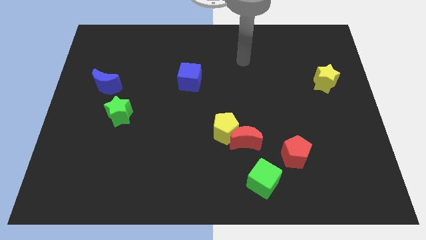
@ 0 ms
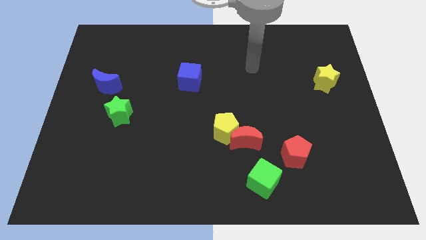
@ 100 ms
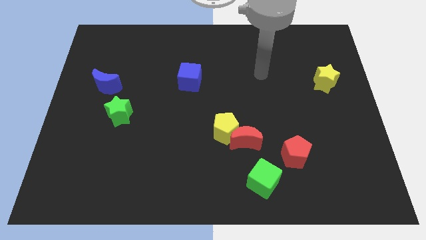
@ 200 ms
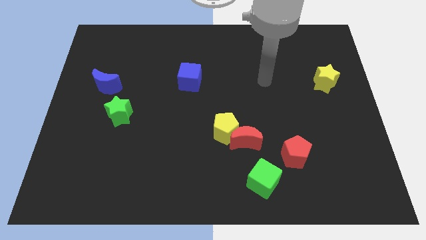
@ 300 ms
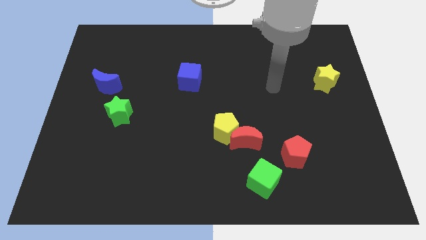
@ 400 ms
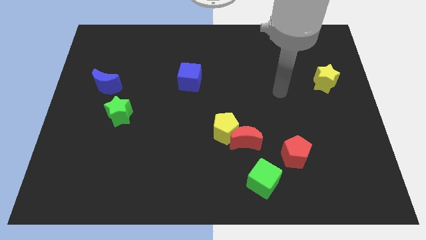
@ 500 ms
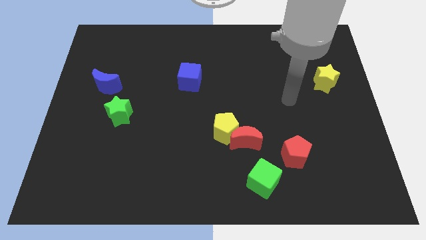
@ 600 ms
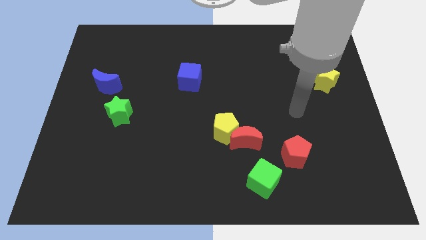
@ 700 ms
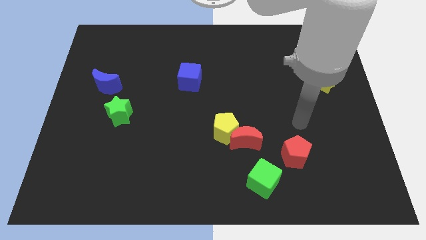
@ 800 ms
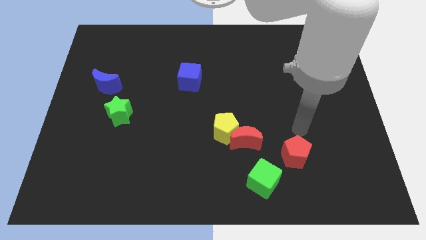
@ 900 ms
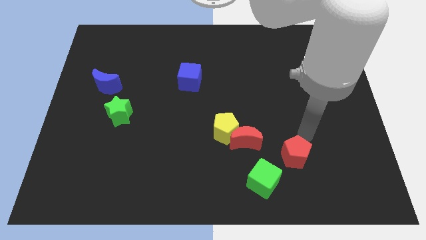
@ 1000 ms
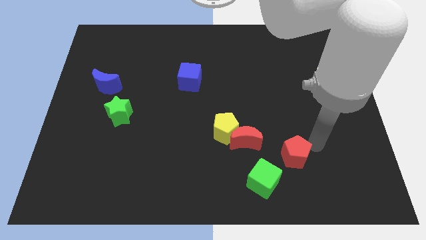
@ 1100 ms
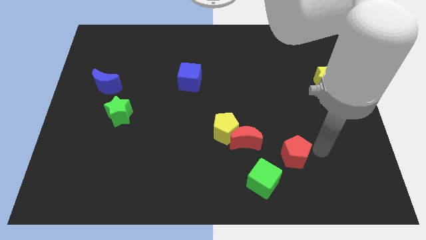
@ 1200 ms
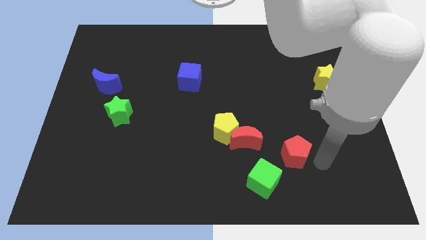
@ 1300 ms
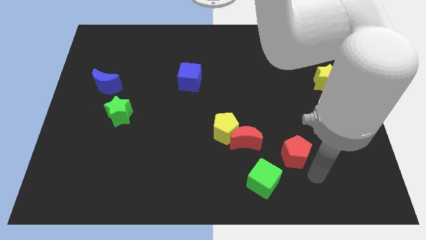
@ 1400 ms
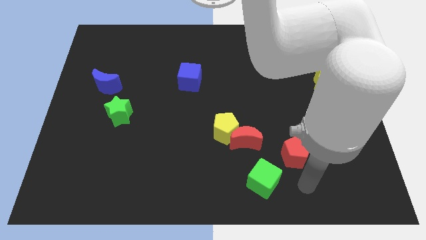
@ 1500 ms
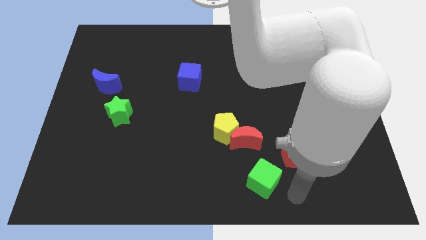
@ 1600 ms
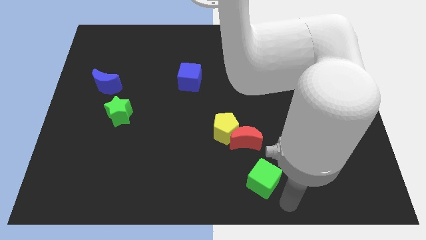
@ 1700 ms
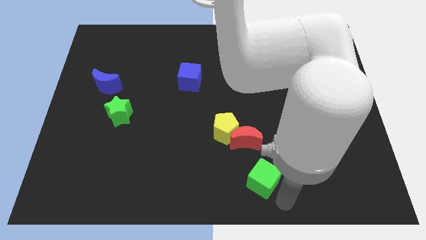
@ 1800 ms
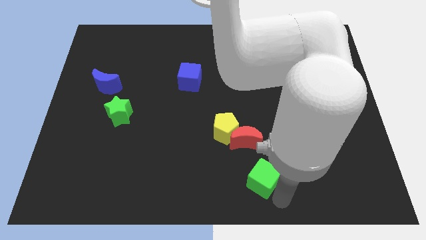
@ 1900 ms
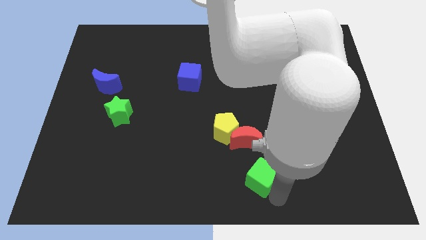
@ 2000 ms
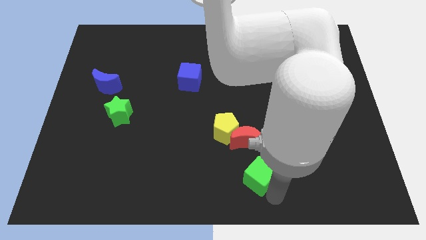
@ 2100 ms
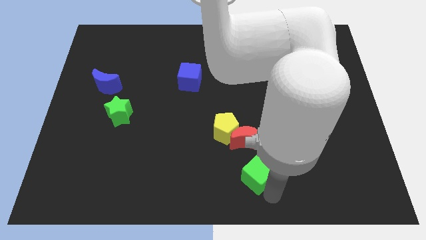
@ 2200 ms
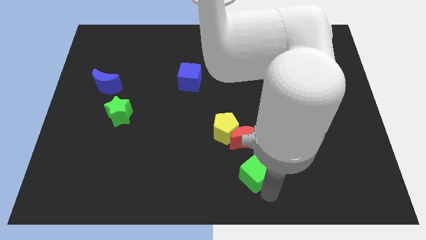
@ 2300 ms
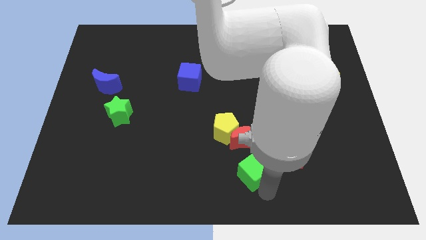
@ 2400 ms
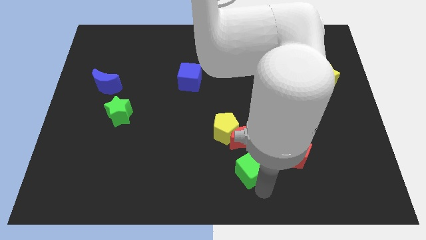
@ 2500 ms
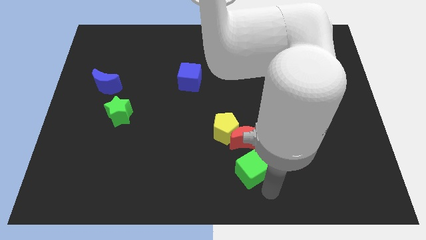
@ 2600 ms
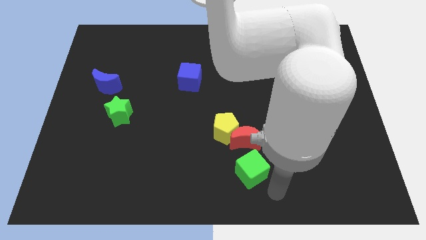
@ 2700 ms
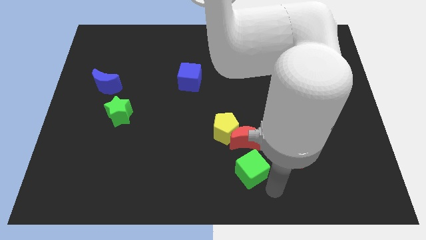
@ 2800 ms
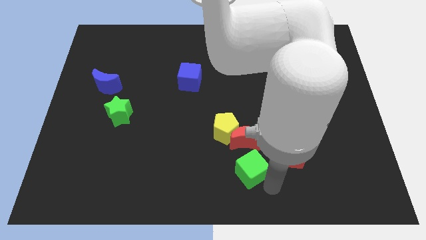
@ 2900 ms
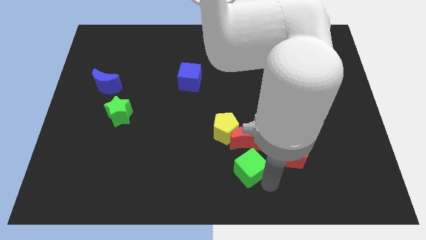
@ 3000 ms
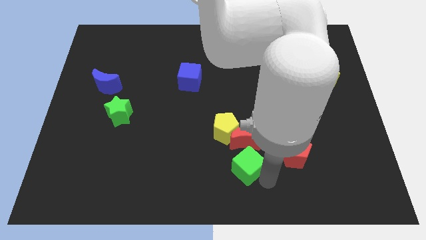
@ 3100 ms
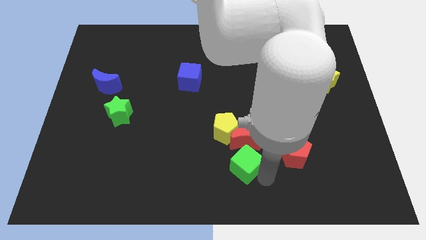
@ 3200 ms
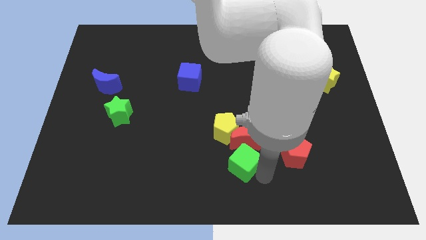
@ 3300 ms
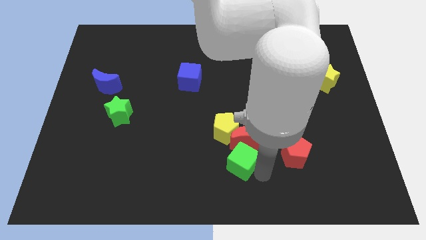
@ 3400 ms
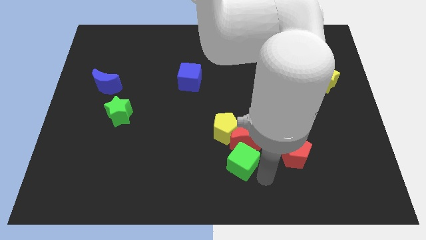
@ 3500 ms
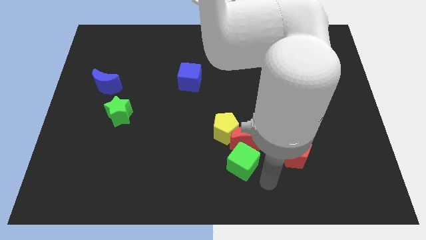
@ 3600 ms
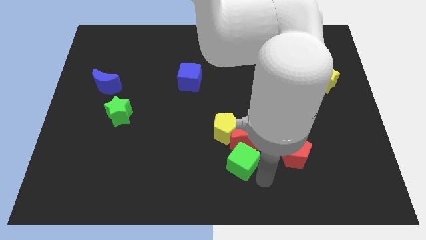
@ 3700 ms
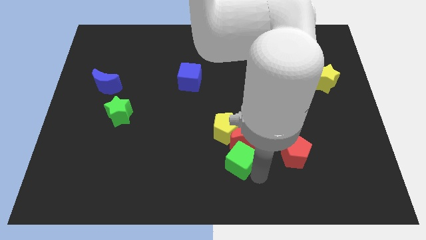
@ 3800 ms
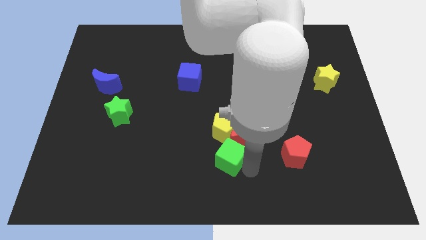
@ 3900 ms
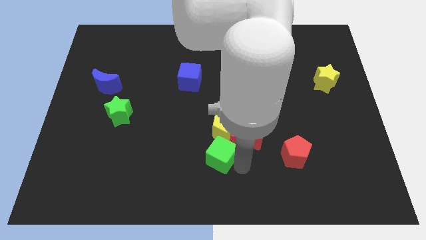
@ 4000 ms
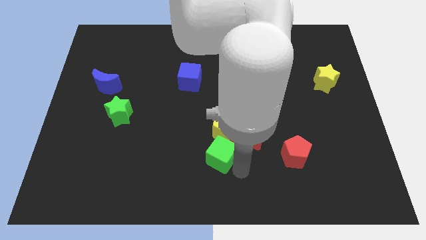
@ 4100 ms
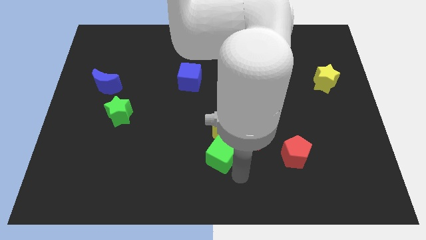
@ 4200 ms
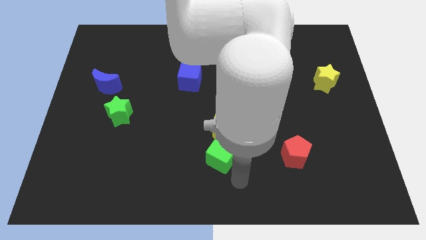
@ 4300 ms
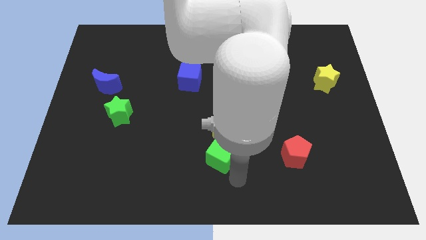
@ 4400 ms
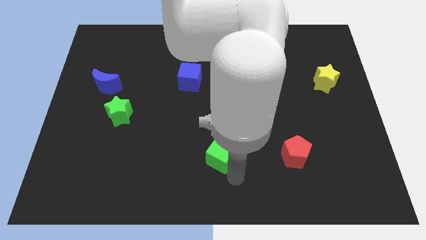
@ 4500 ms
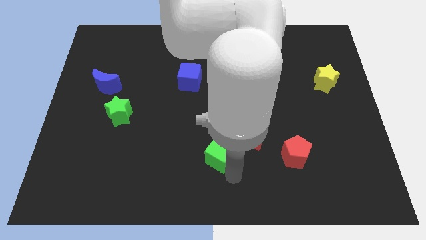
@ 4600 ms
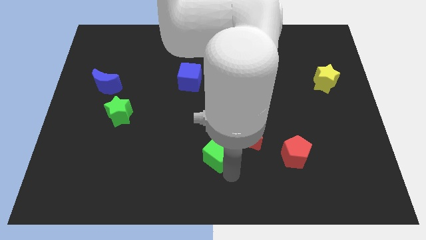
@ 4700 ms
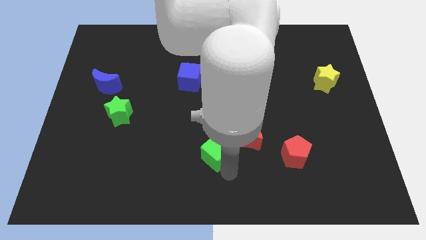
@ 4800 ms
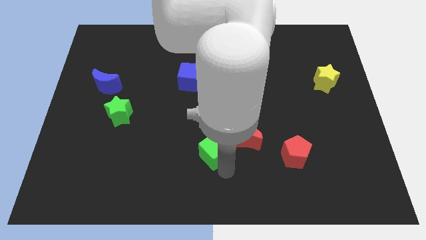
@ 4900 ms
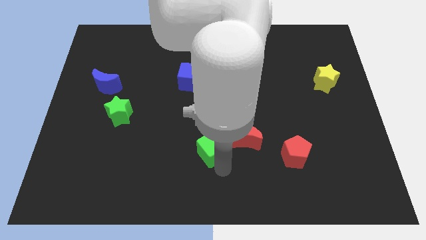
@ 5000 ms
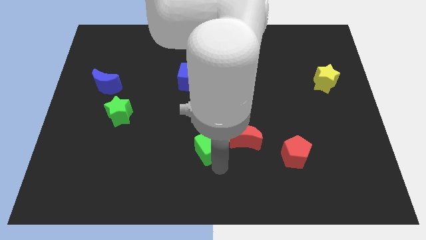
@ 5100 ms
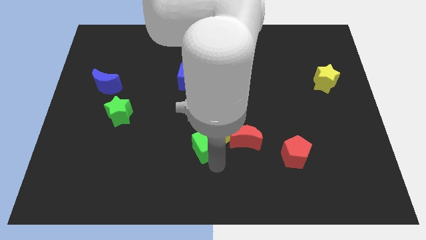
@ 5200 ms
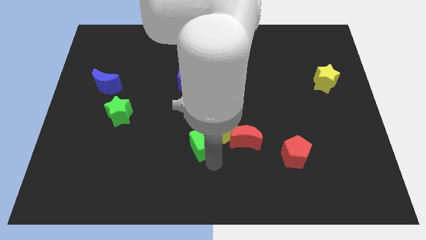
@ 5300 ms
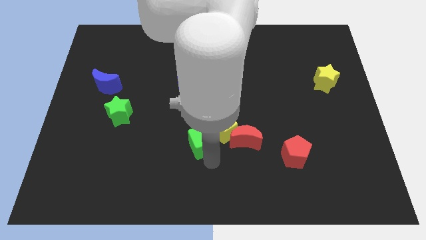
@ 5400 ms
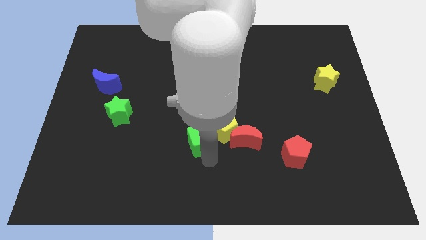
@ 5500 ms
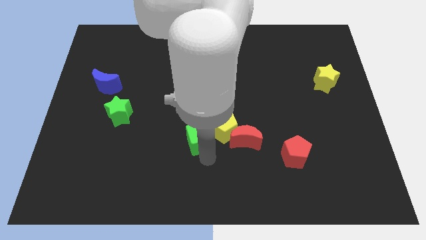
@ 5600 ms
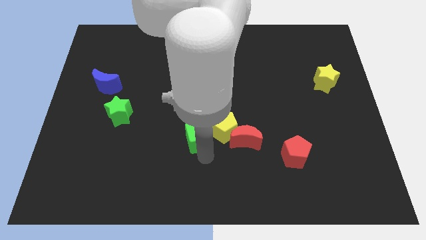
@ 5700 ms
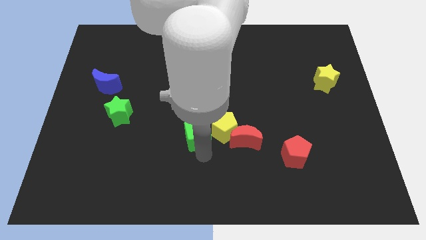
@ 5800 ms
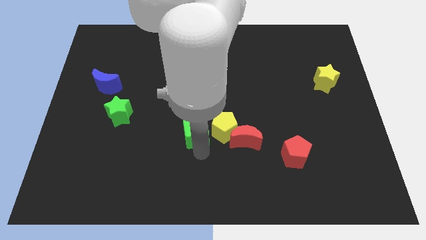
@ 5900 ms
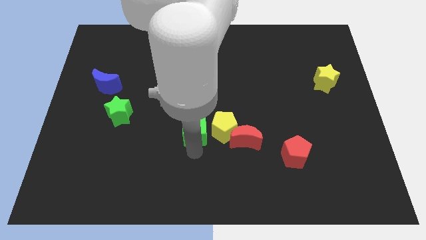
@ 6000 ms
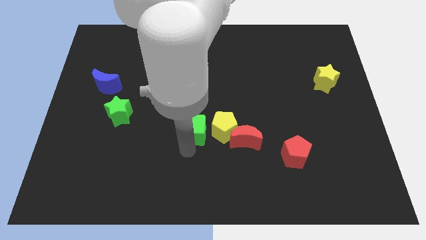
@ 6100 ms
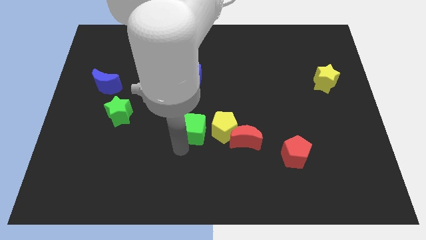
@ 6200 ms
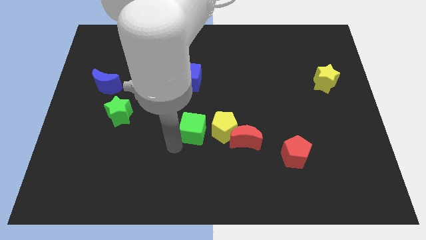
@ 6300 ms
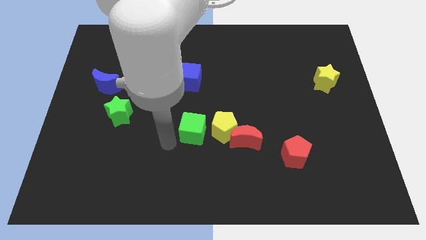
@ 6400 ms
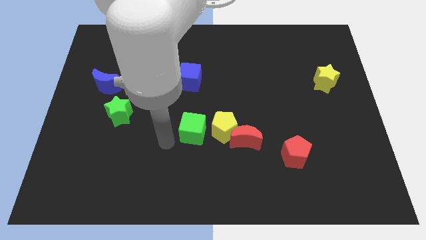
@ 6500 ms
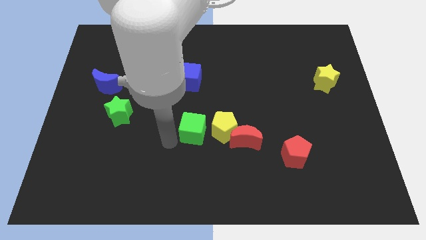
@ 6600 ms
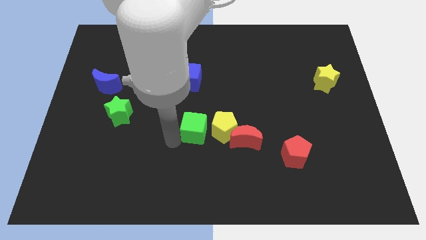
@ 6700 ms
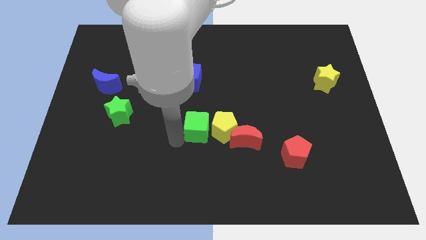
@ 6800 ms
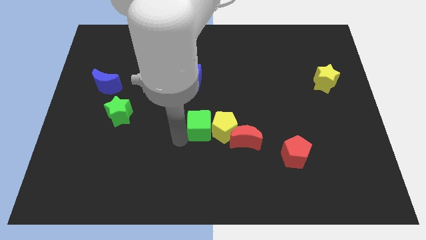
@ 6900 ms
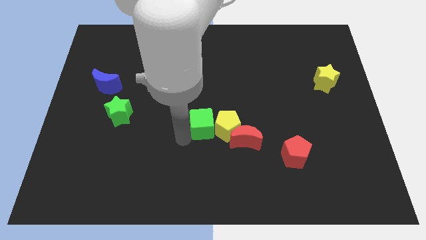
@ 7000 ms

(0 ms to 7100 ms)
slide the green cube diagonally up and to the left of the red moon
